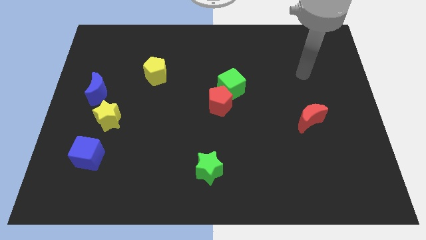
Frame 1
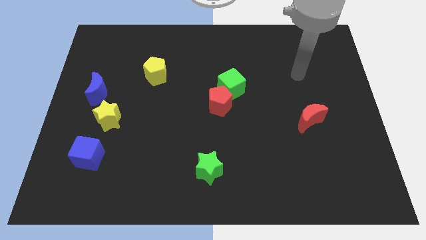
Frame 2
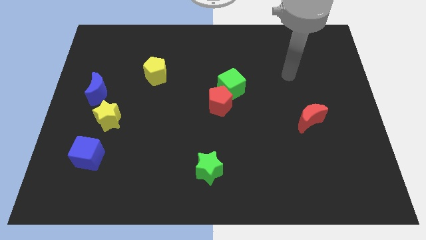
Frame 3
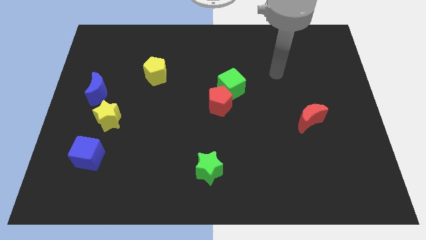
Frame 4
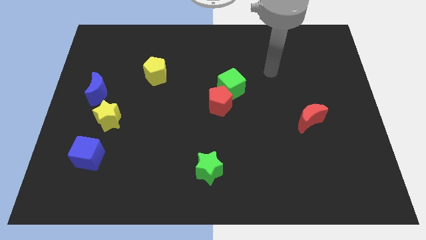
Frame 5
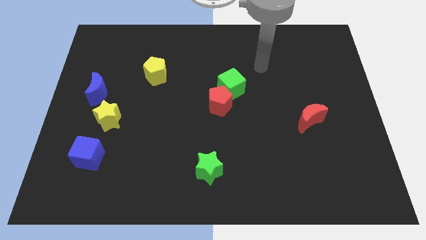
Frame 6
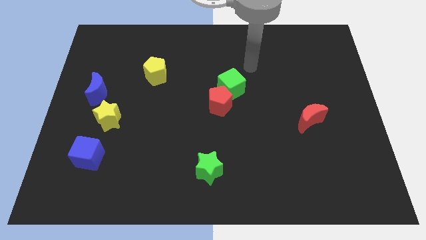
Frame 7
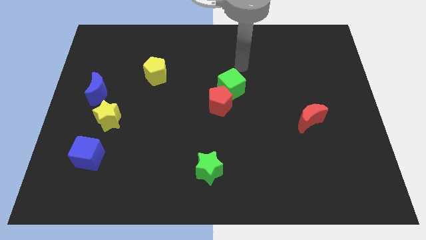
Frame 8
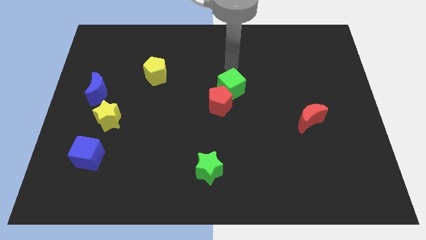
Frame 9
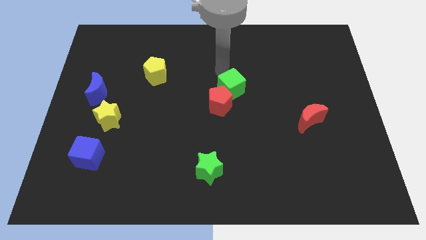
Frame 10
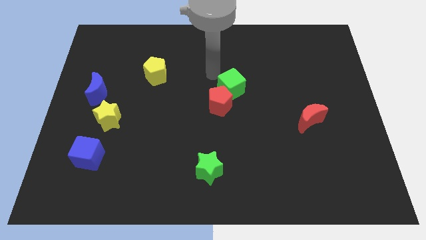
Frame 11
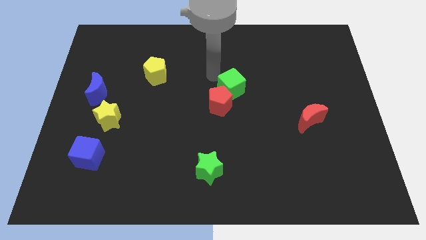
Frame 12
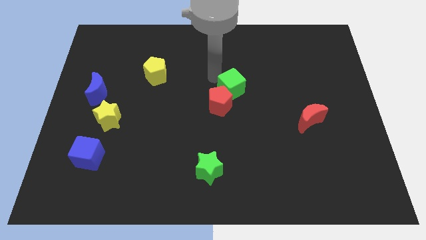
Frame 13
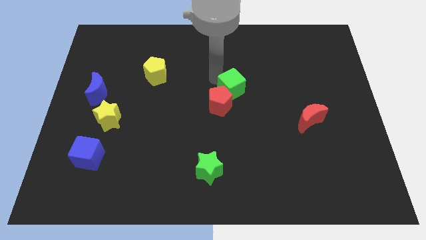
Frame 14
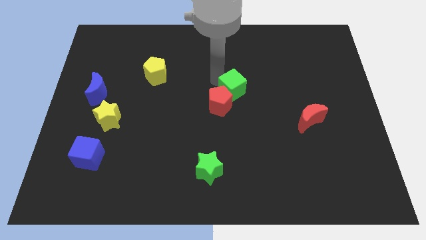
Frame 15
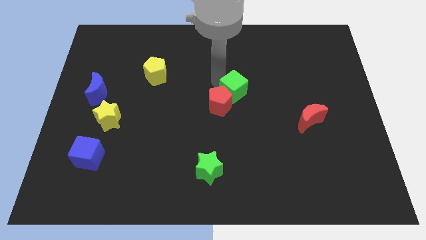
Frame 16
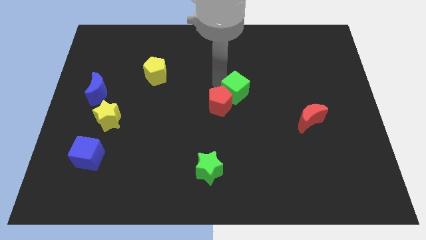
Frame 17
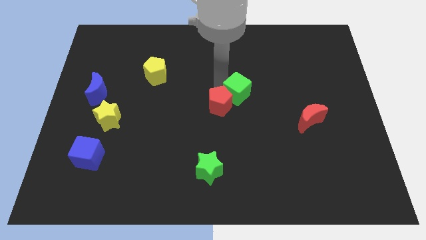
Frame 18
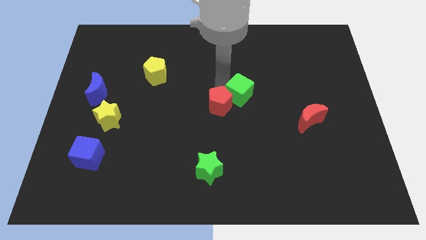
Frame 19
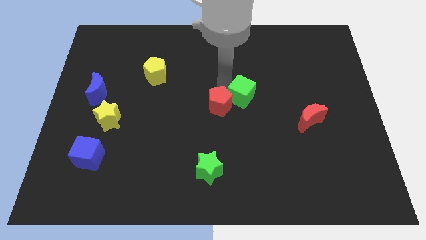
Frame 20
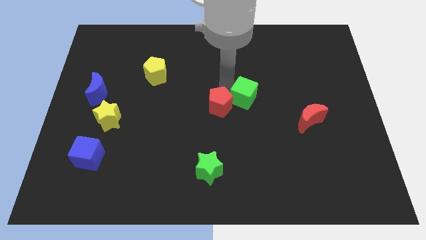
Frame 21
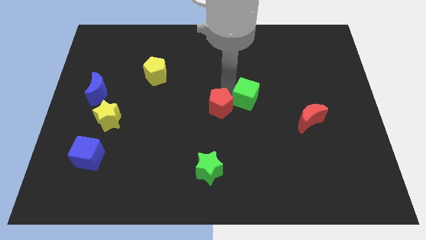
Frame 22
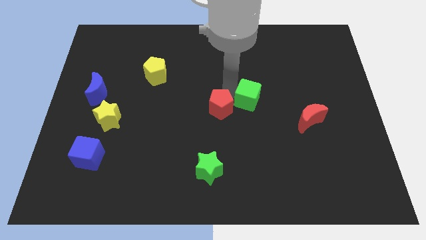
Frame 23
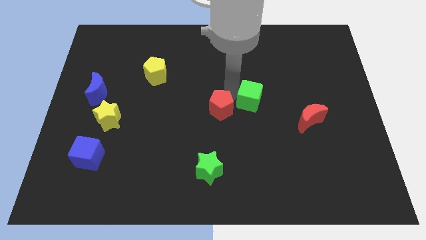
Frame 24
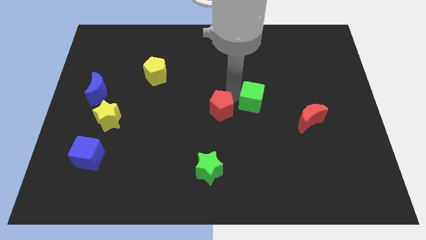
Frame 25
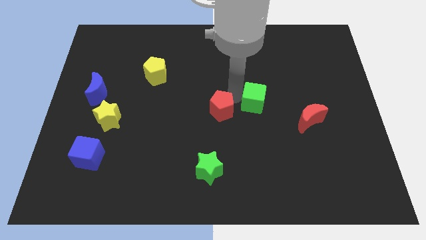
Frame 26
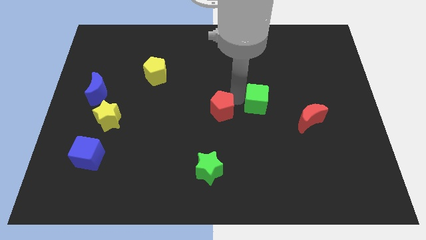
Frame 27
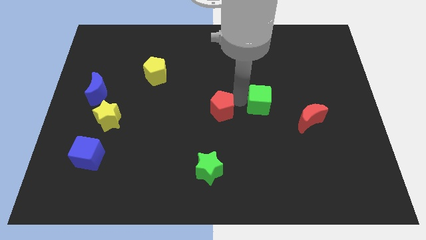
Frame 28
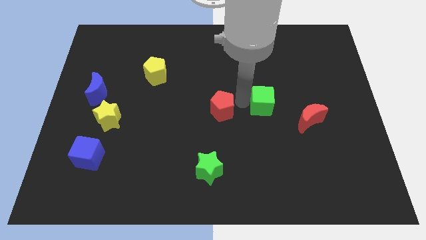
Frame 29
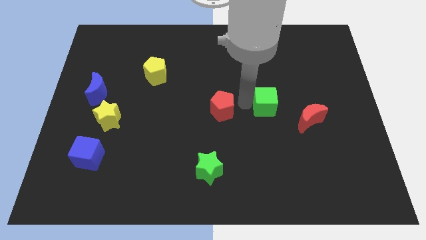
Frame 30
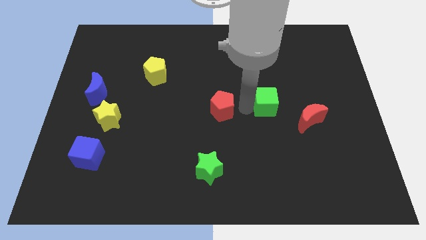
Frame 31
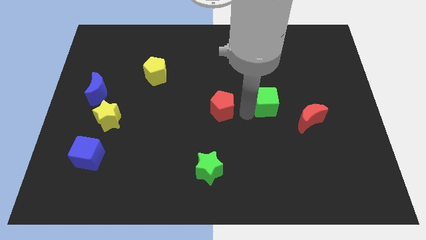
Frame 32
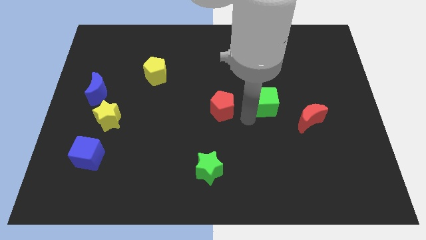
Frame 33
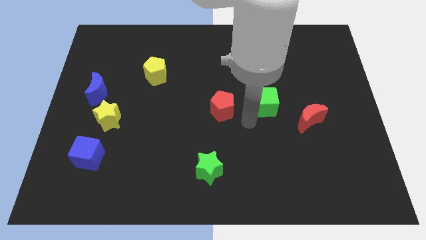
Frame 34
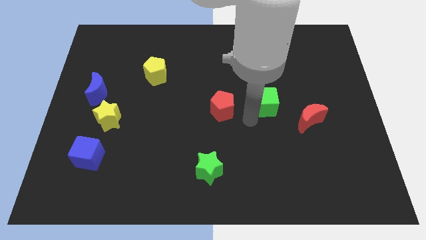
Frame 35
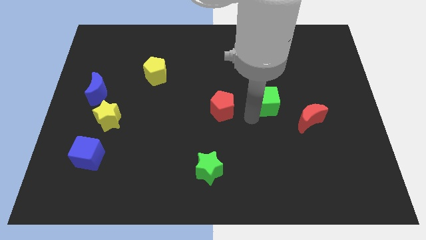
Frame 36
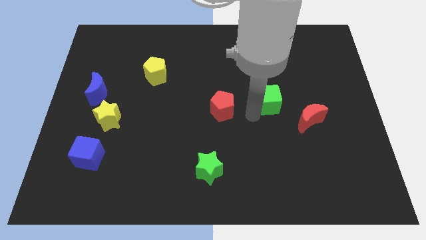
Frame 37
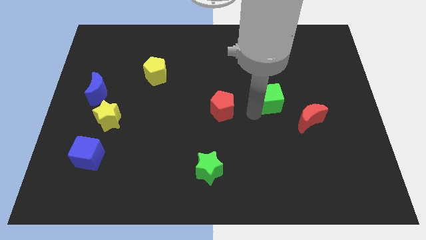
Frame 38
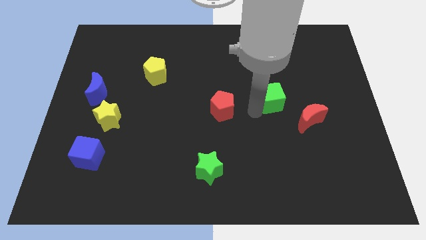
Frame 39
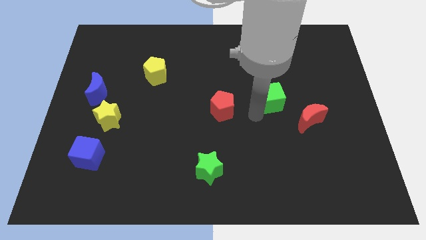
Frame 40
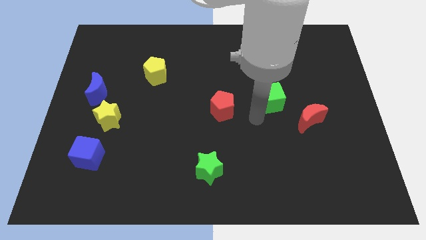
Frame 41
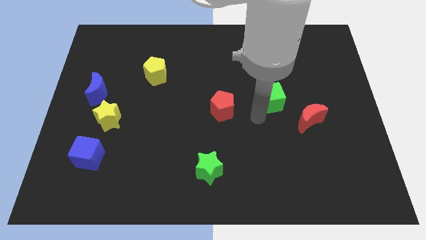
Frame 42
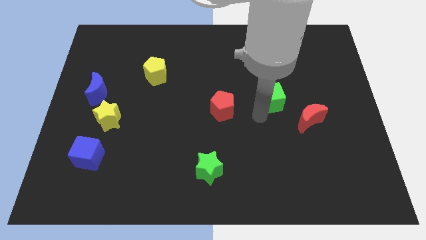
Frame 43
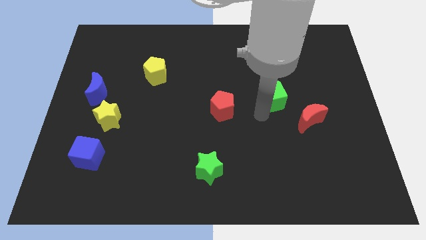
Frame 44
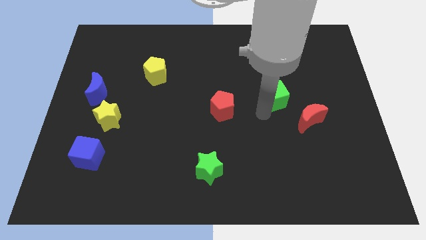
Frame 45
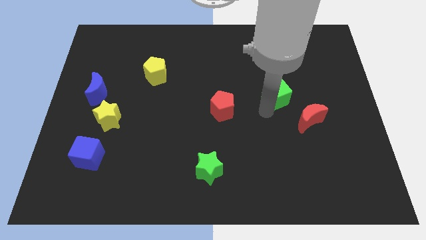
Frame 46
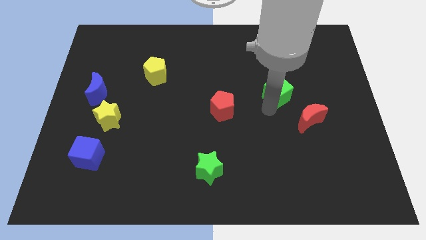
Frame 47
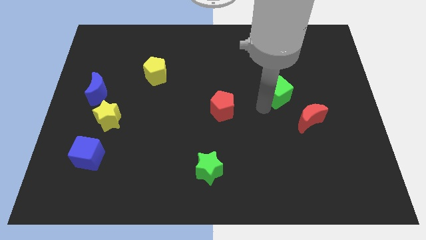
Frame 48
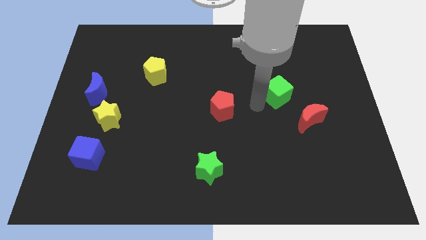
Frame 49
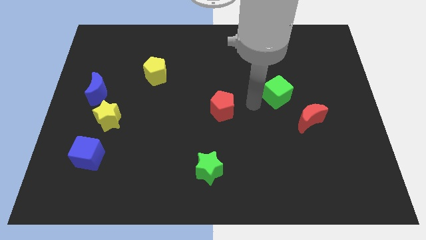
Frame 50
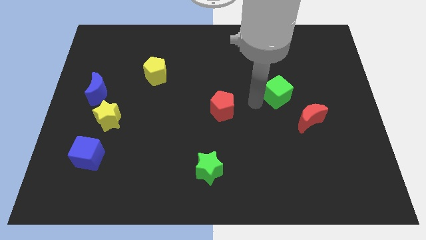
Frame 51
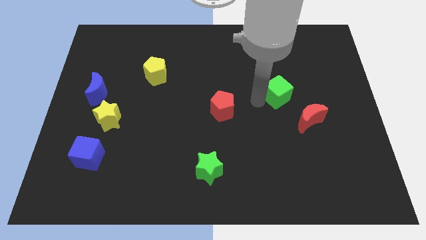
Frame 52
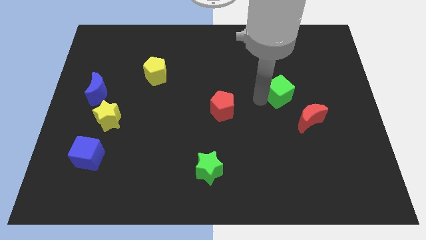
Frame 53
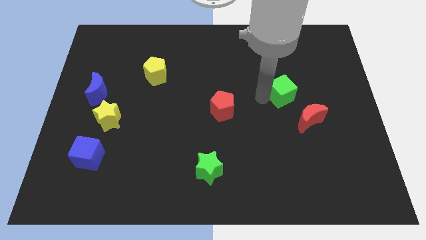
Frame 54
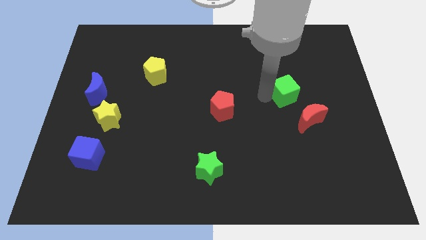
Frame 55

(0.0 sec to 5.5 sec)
push the green cube to the top of the red moon
